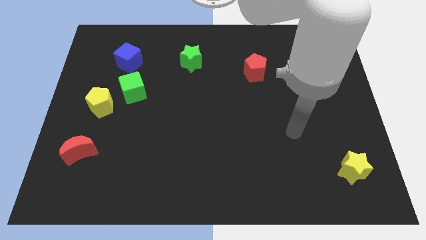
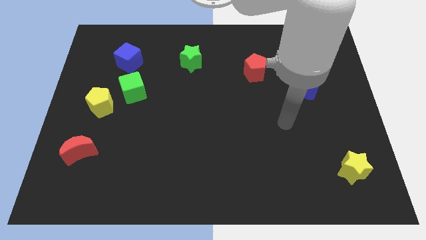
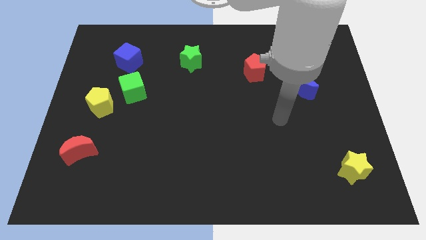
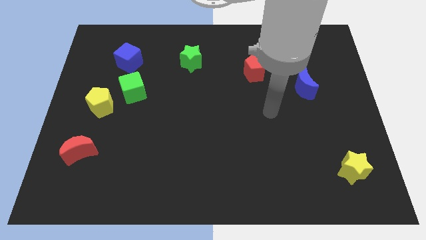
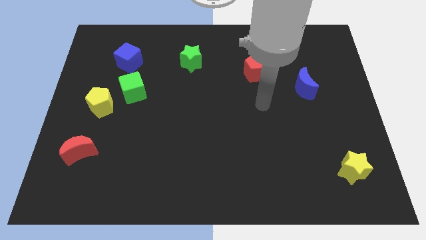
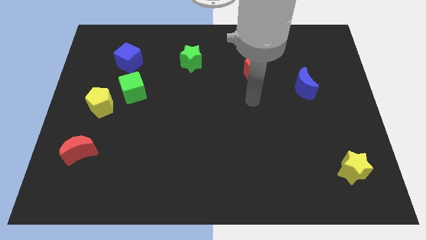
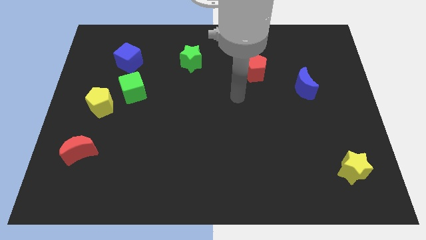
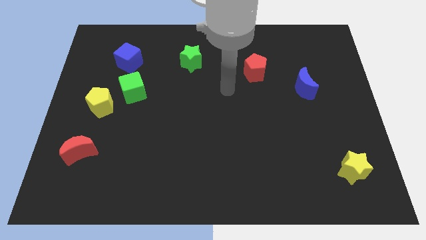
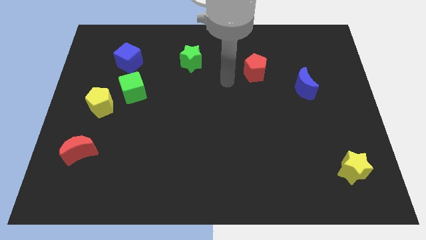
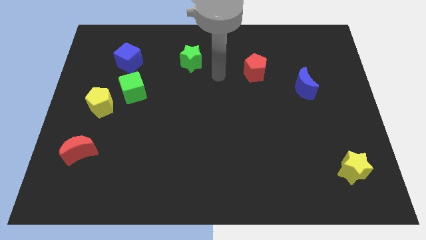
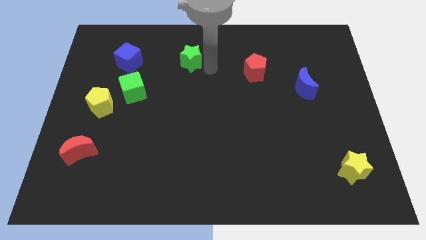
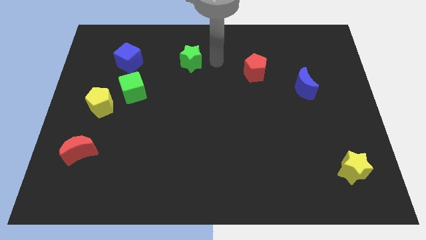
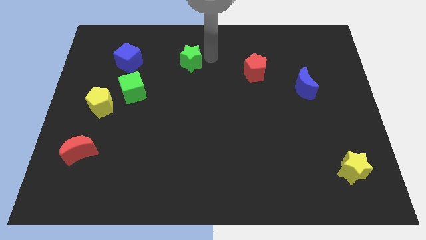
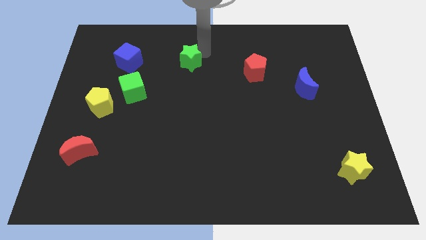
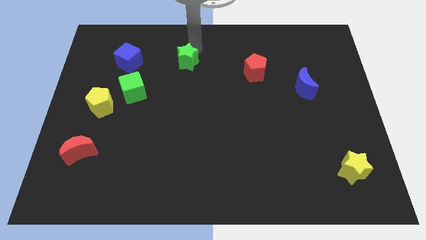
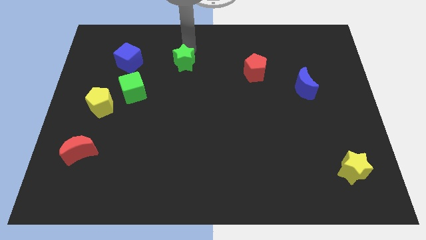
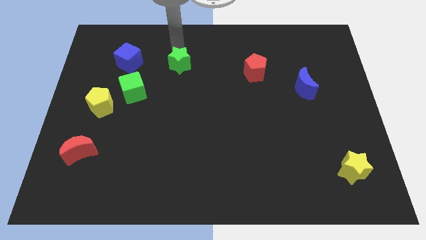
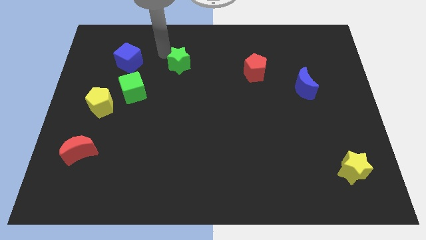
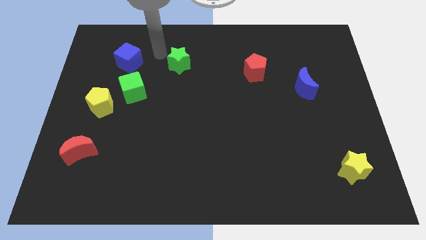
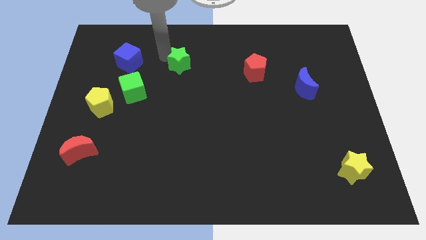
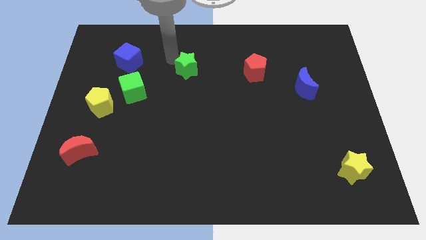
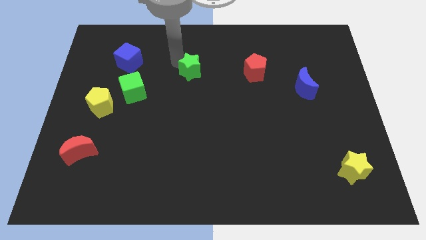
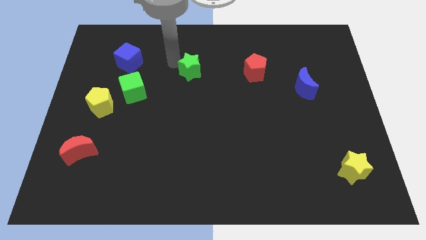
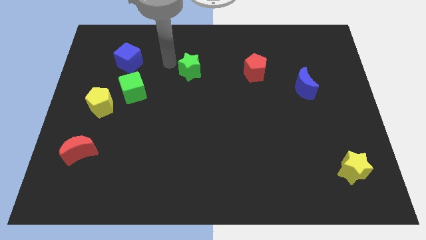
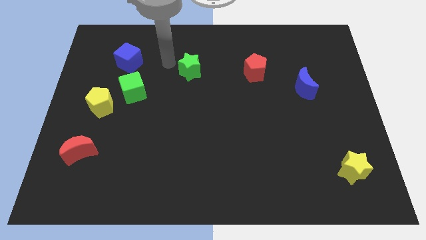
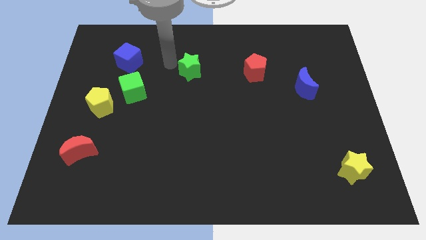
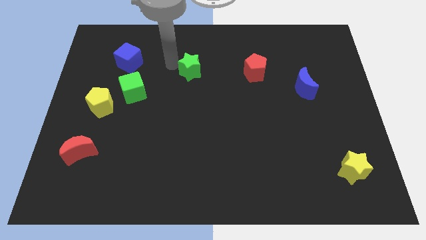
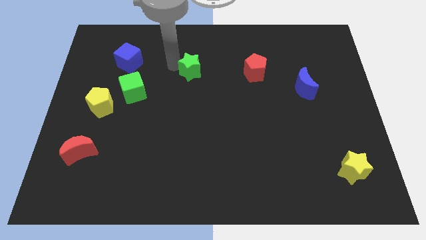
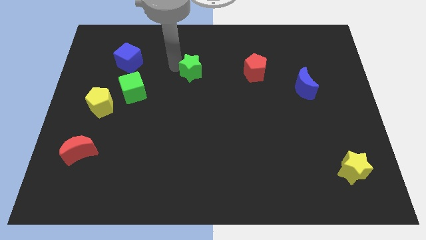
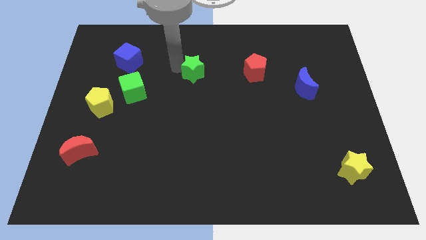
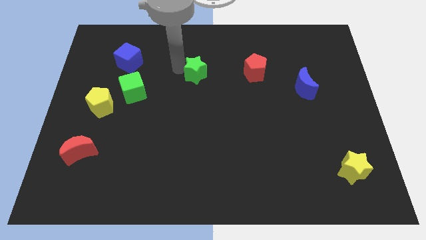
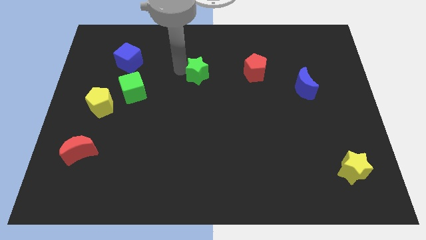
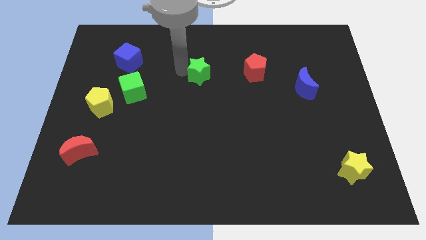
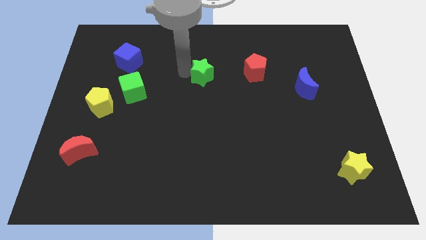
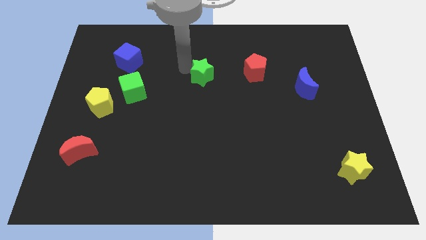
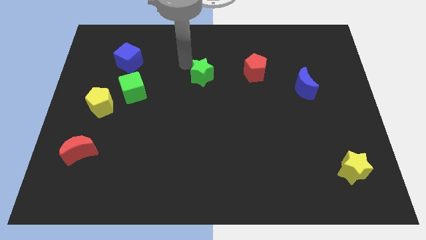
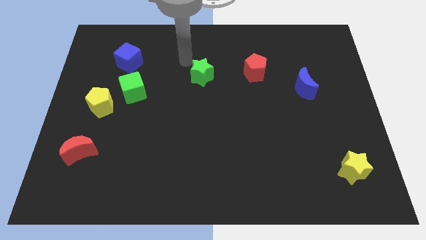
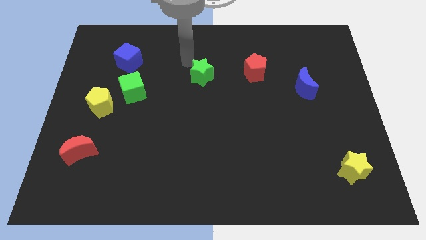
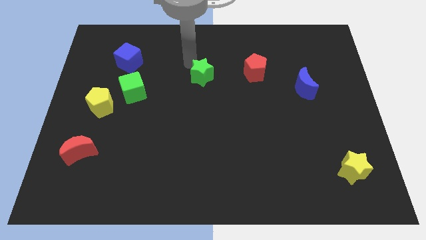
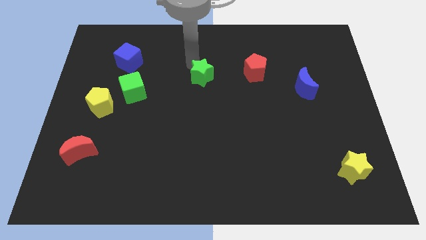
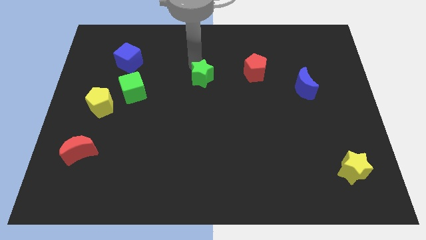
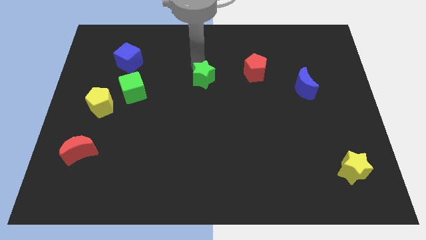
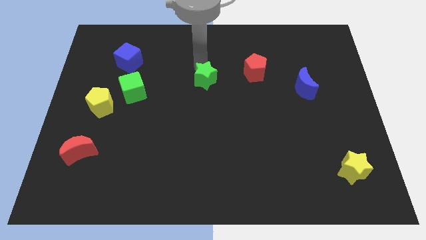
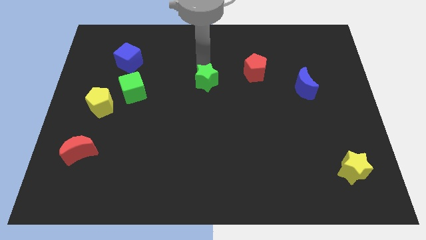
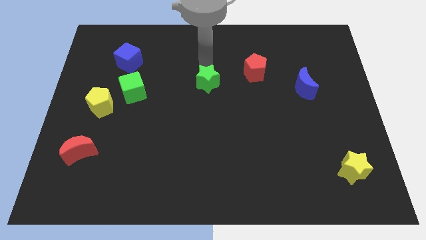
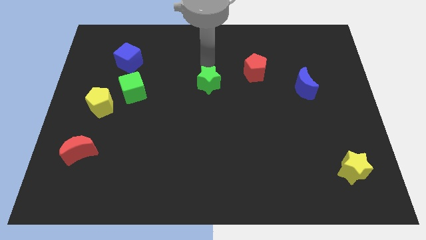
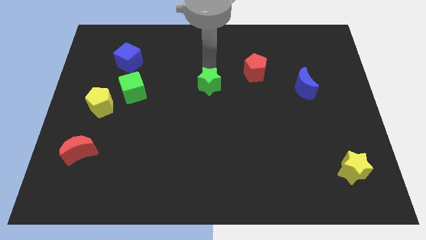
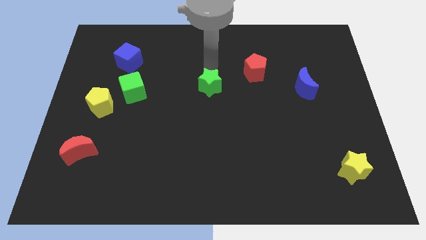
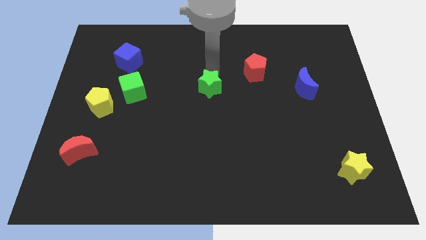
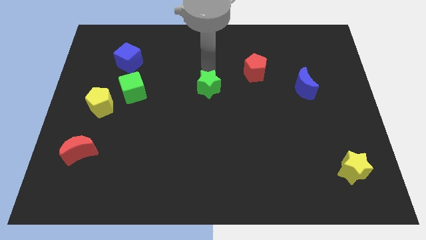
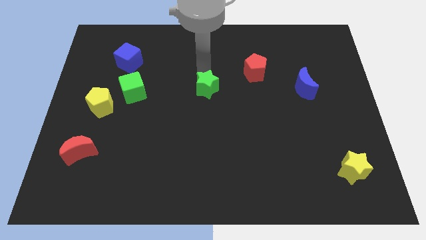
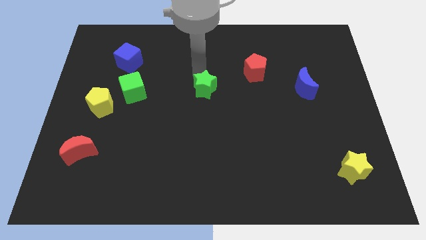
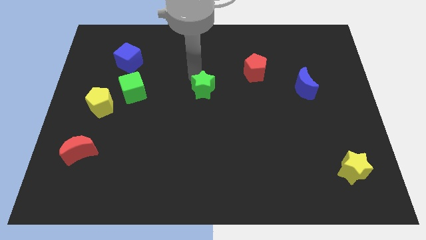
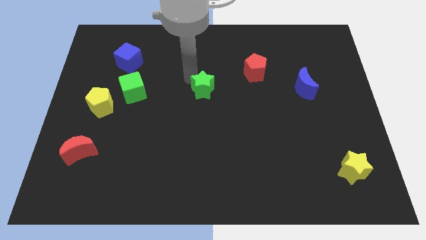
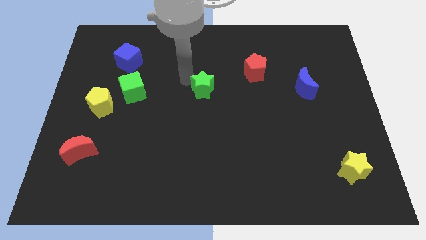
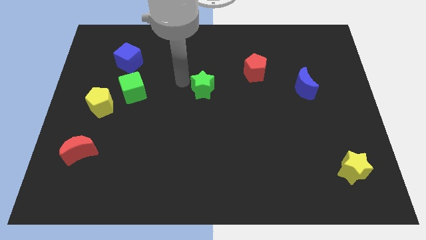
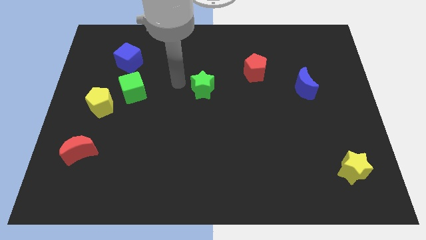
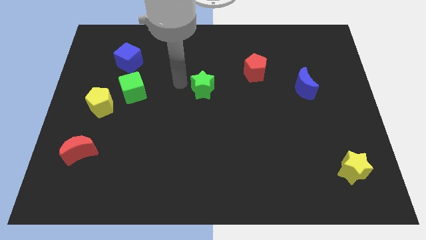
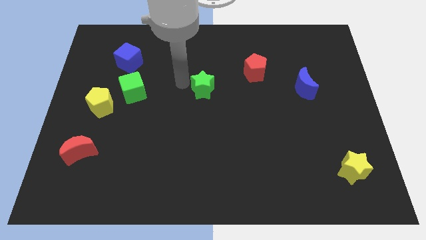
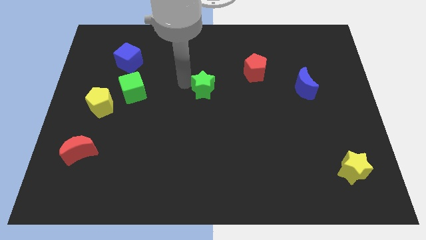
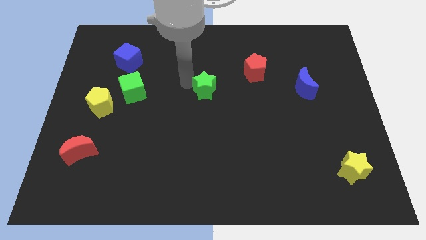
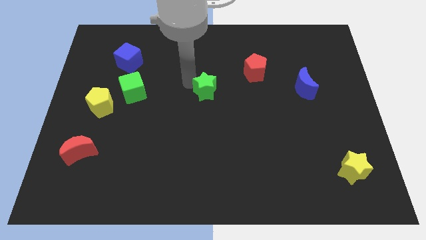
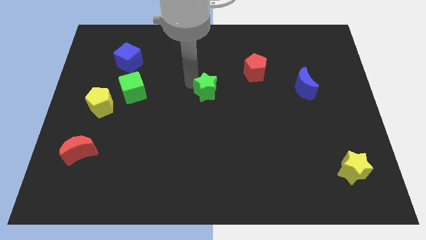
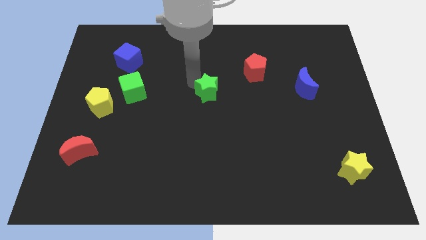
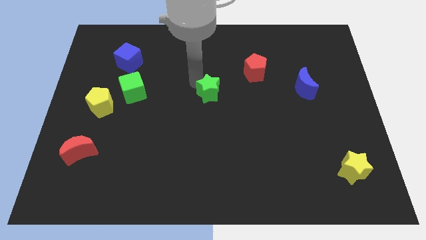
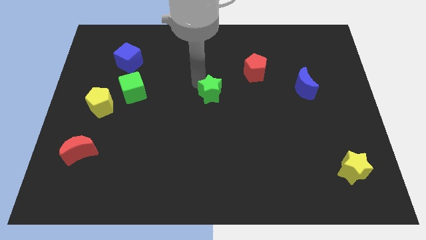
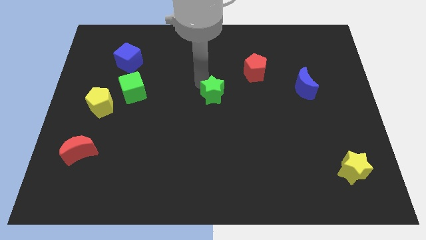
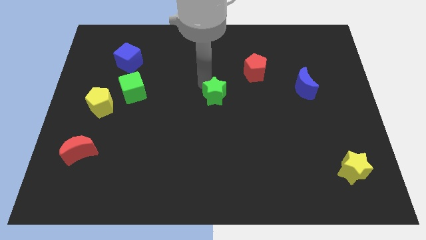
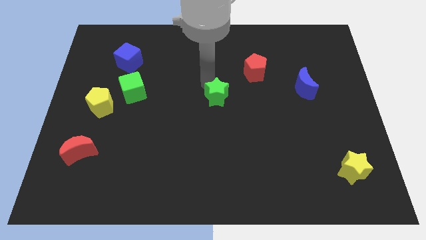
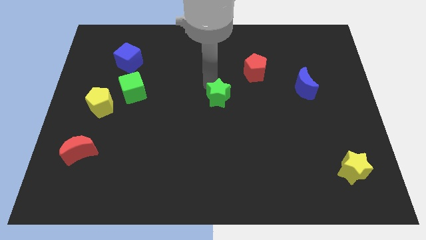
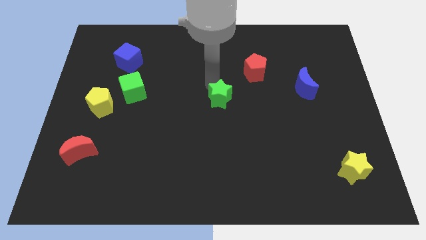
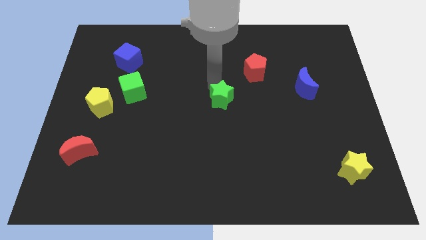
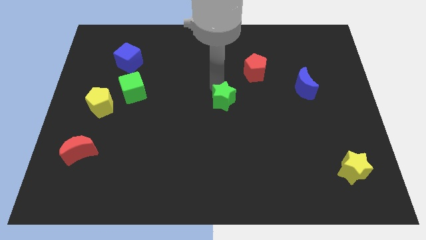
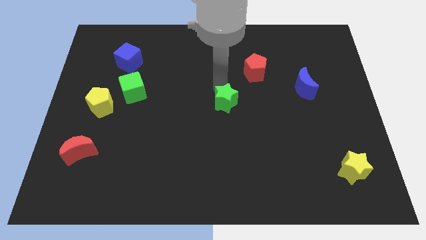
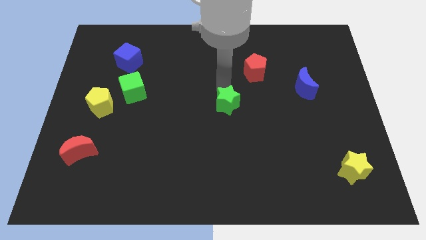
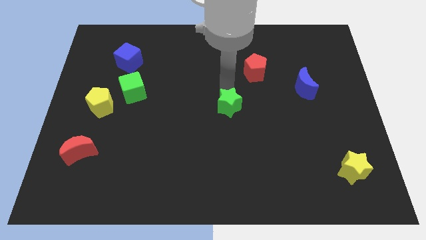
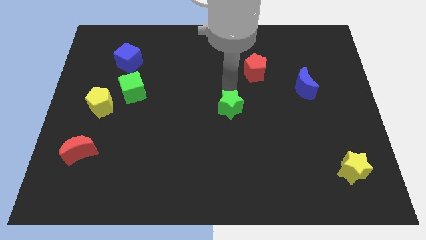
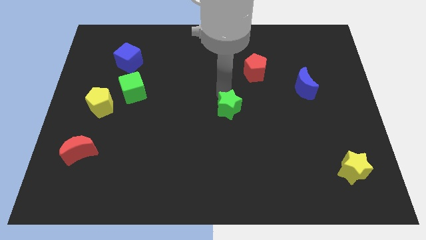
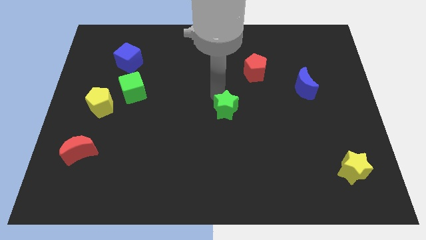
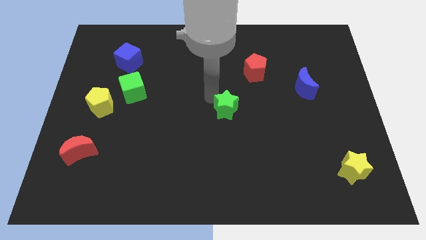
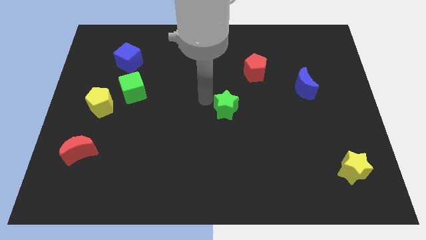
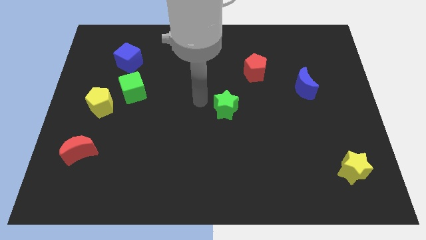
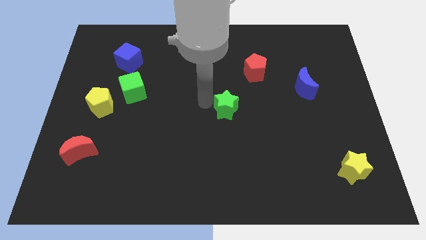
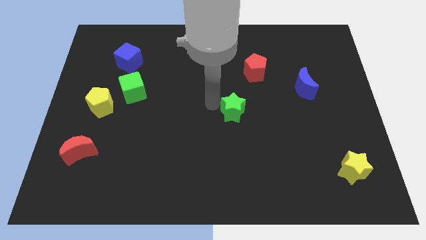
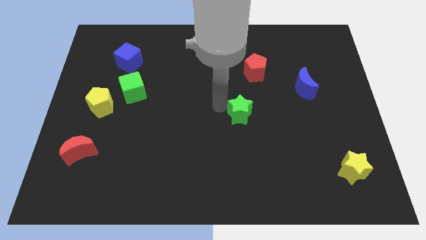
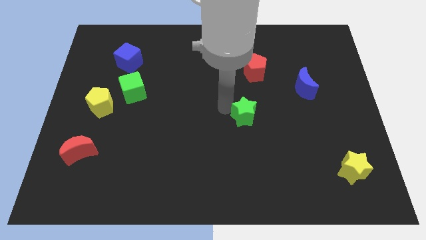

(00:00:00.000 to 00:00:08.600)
move the green star downwards and right

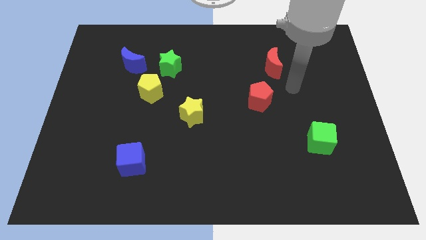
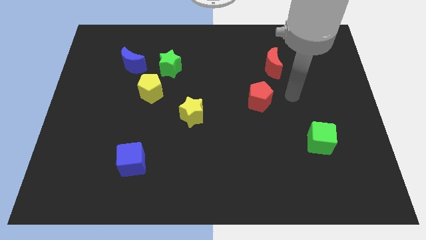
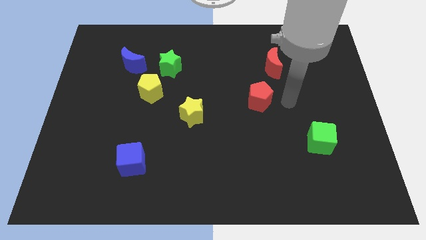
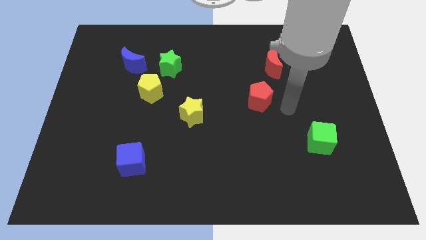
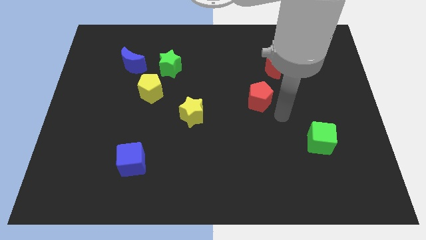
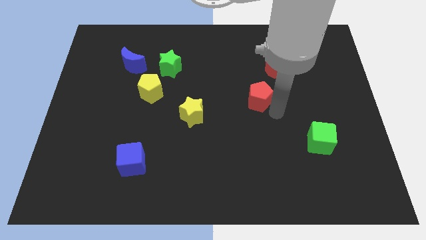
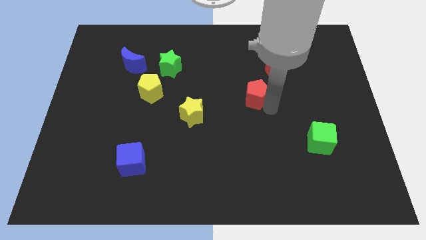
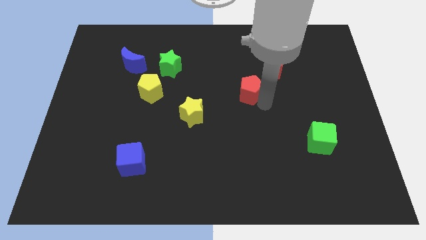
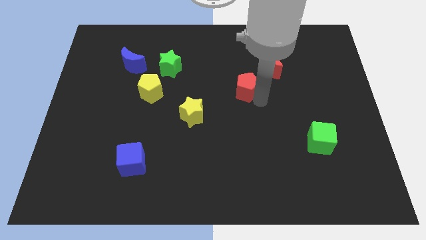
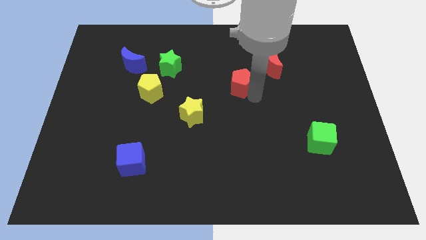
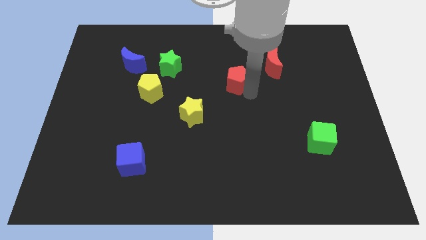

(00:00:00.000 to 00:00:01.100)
slightly move the red pentagon upwards and then left
